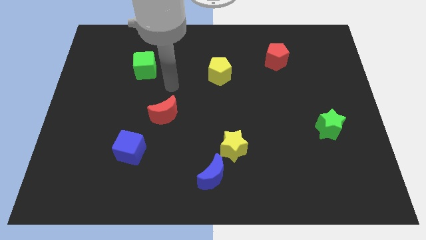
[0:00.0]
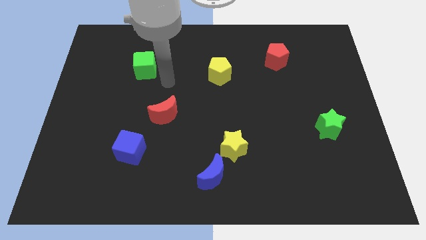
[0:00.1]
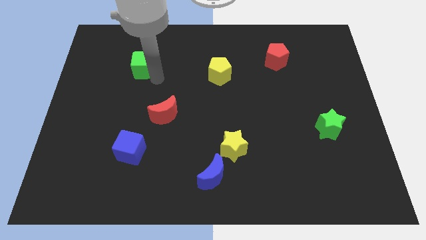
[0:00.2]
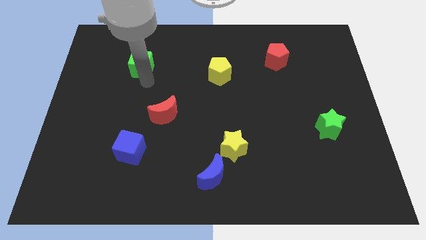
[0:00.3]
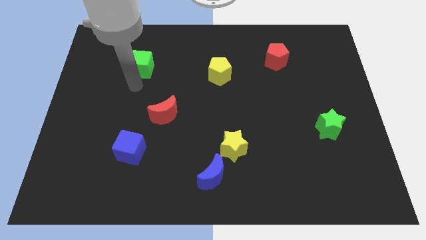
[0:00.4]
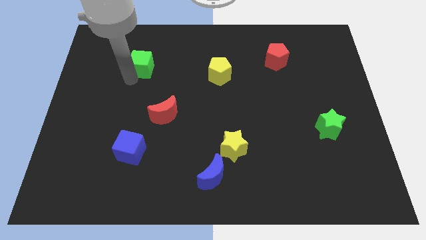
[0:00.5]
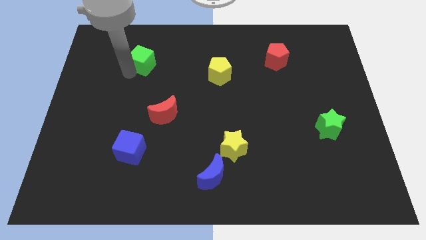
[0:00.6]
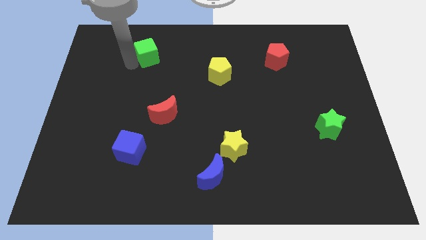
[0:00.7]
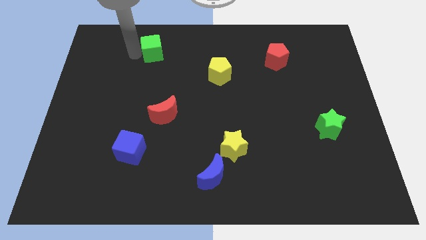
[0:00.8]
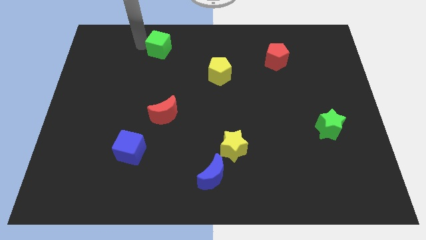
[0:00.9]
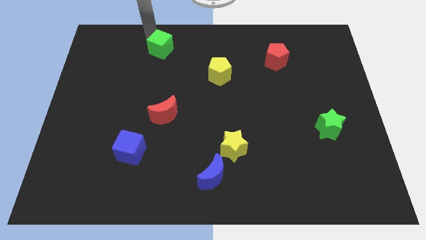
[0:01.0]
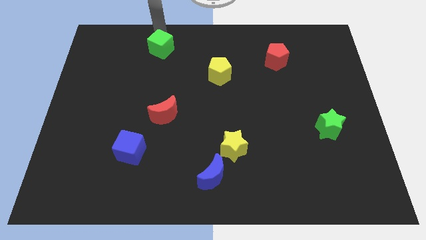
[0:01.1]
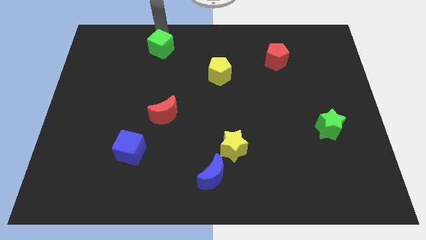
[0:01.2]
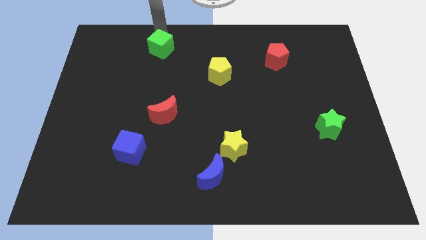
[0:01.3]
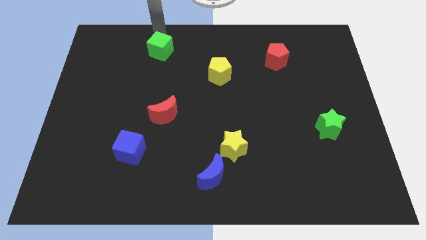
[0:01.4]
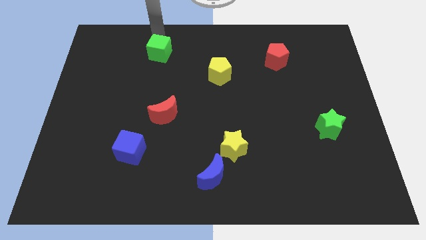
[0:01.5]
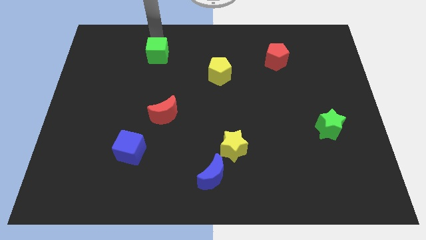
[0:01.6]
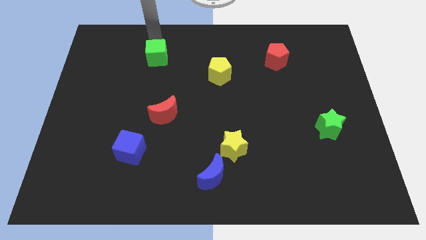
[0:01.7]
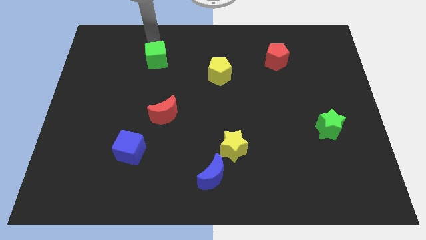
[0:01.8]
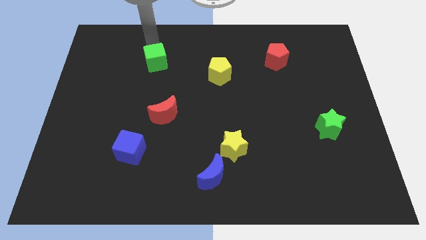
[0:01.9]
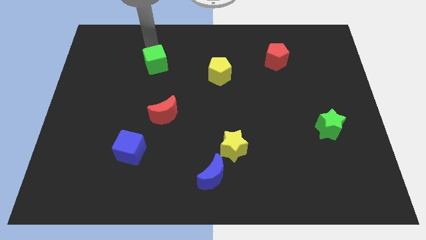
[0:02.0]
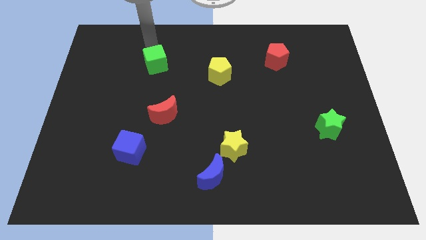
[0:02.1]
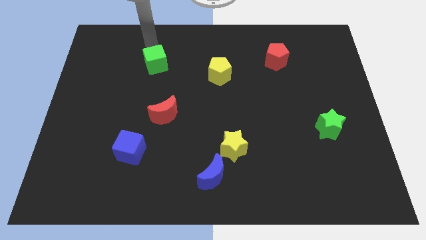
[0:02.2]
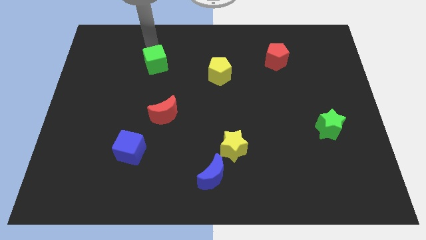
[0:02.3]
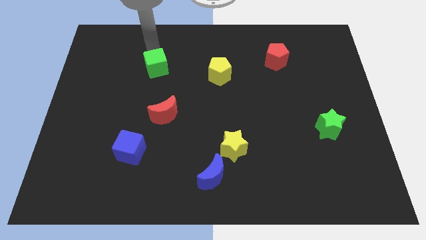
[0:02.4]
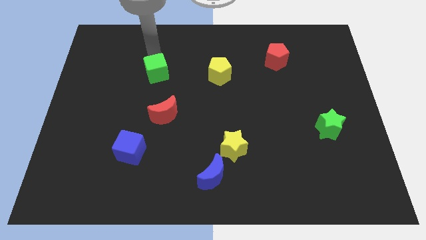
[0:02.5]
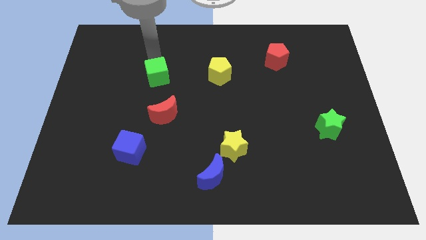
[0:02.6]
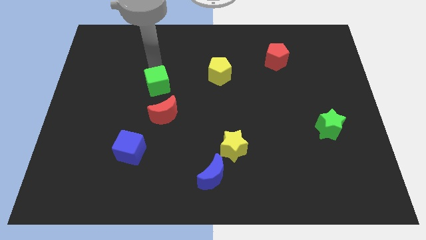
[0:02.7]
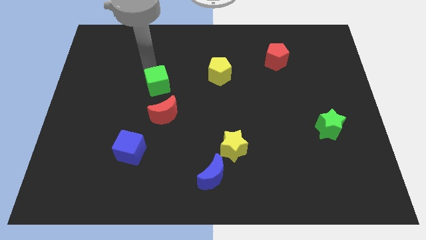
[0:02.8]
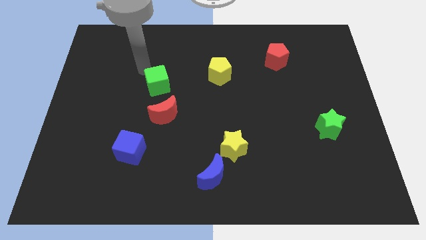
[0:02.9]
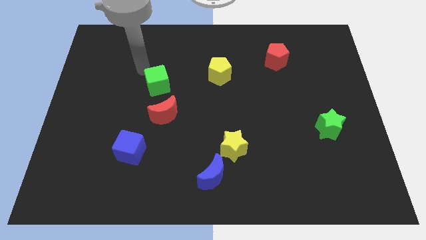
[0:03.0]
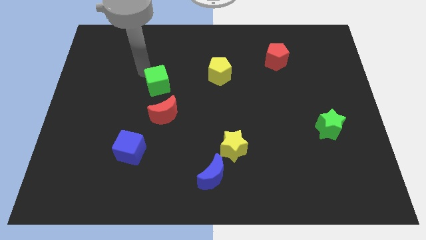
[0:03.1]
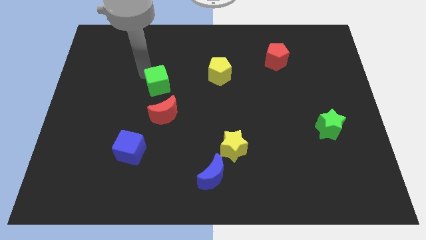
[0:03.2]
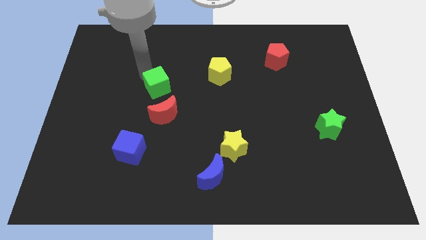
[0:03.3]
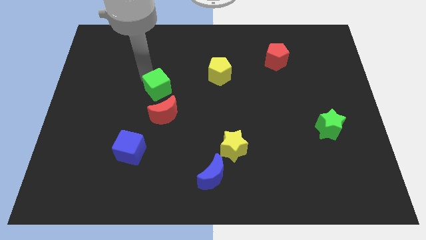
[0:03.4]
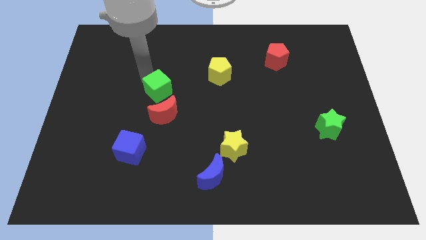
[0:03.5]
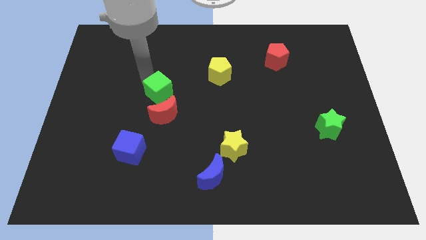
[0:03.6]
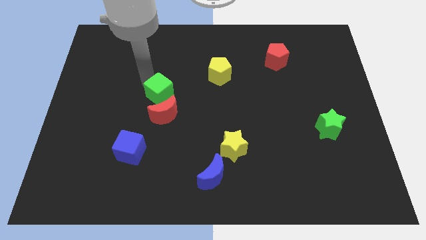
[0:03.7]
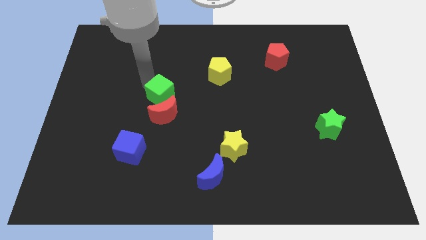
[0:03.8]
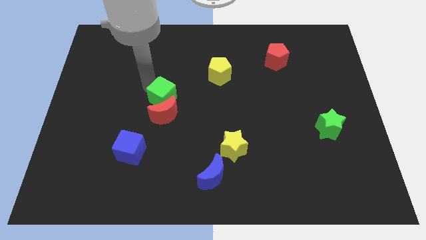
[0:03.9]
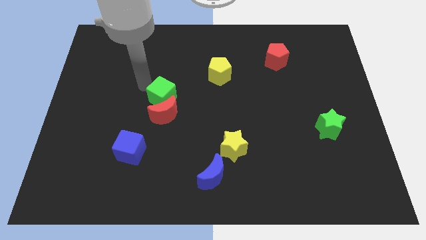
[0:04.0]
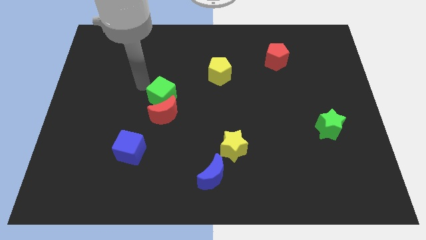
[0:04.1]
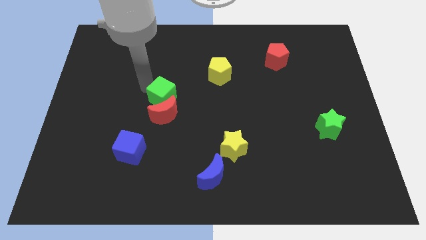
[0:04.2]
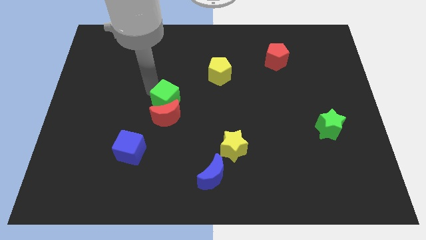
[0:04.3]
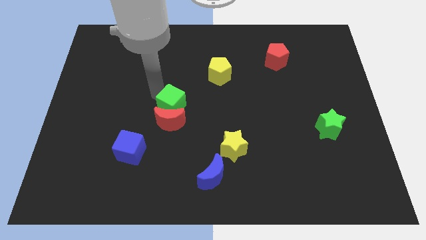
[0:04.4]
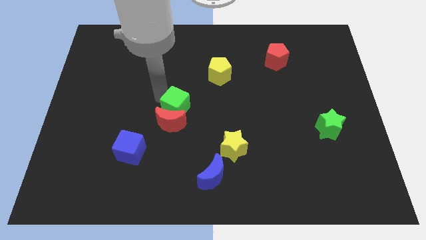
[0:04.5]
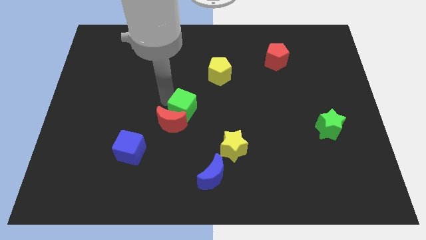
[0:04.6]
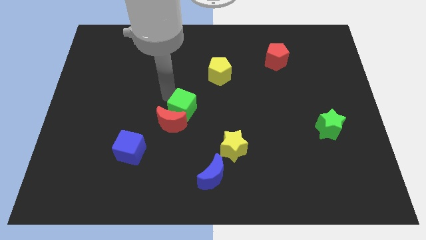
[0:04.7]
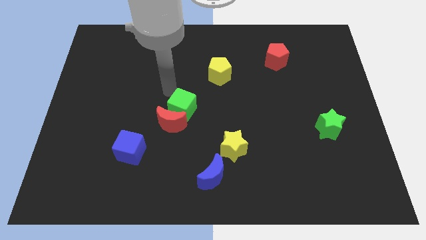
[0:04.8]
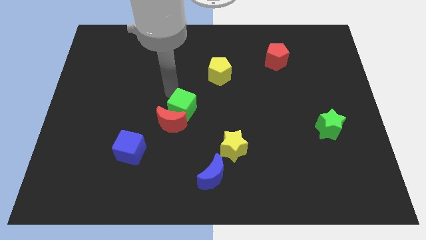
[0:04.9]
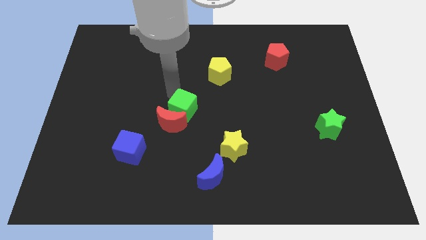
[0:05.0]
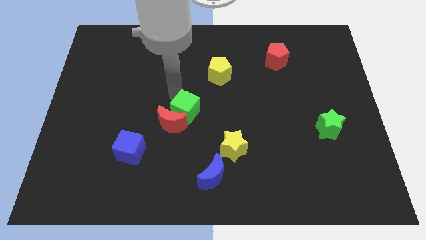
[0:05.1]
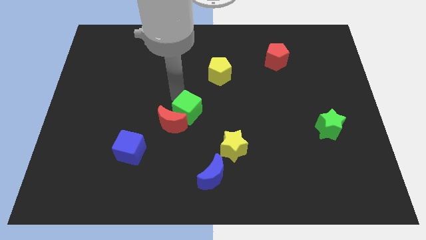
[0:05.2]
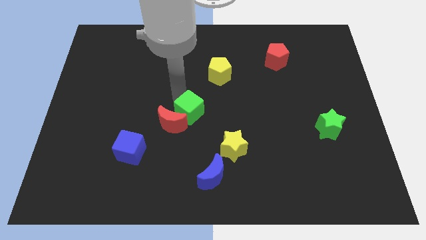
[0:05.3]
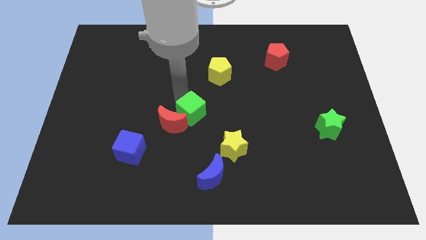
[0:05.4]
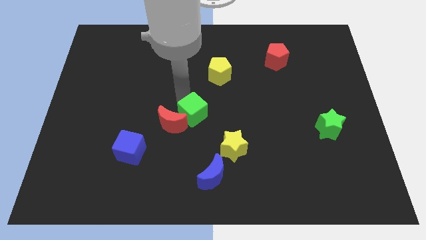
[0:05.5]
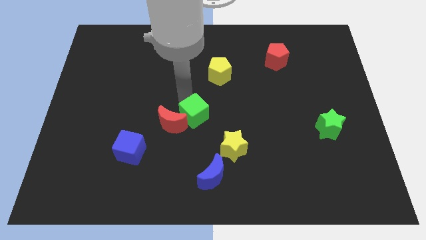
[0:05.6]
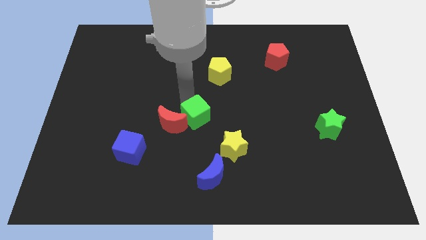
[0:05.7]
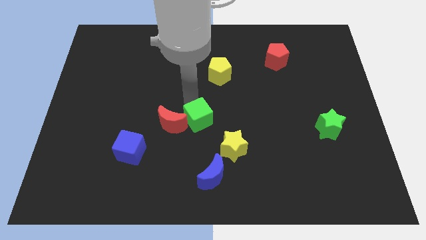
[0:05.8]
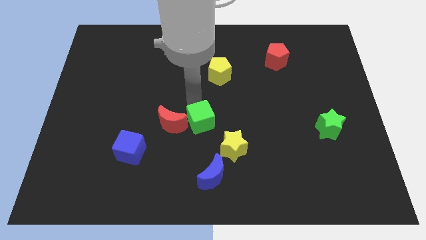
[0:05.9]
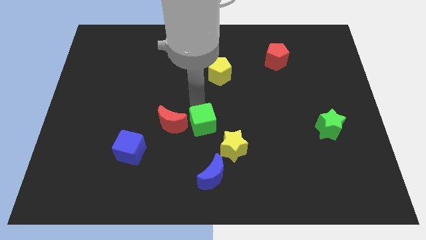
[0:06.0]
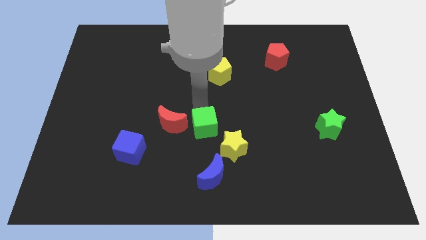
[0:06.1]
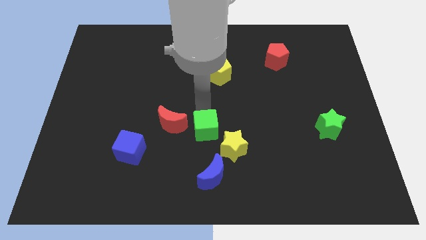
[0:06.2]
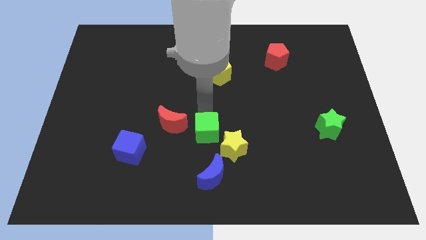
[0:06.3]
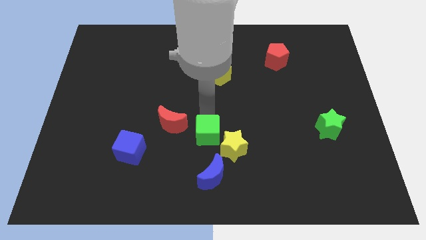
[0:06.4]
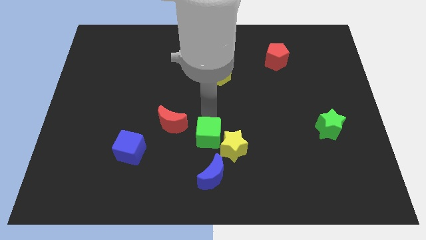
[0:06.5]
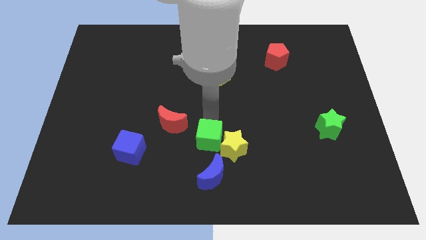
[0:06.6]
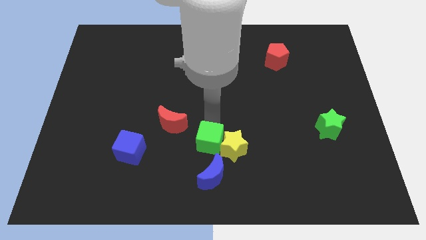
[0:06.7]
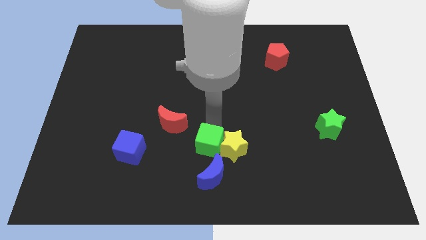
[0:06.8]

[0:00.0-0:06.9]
push the green cube diagonally up and to the left of the blue moon
